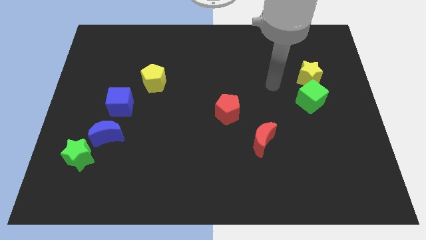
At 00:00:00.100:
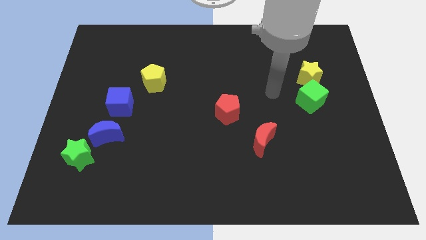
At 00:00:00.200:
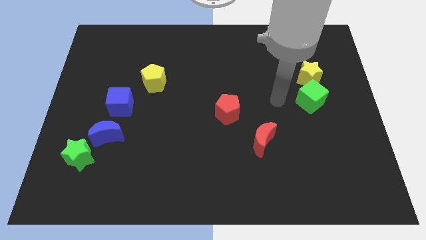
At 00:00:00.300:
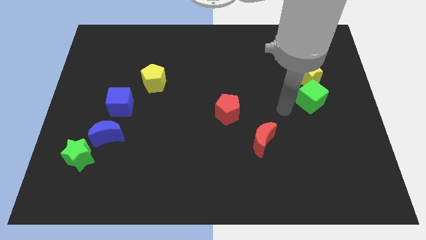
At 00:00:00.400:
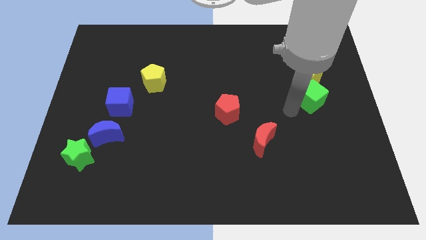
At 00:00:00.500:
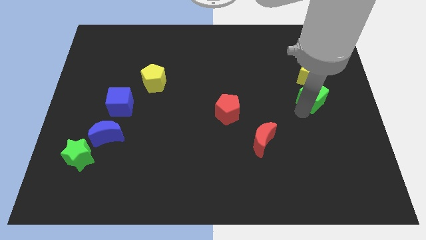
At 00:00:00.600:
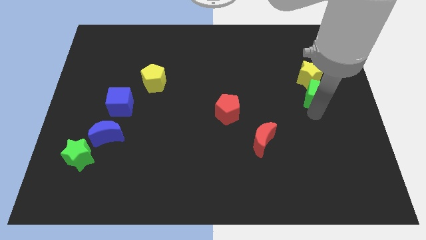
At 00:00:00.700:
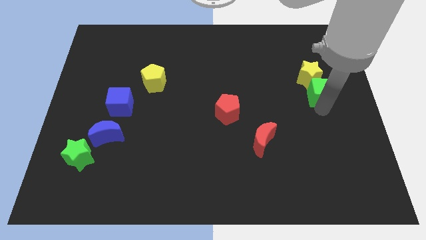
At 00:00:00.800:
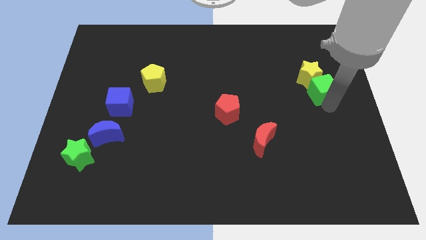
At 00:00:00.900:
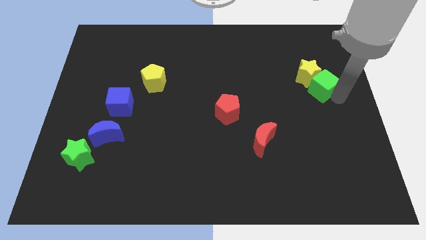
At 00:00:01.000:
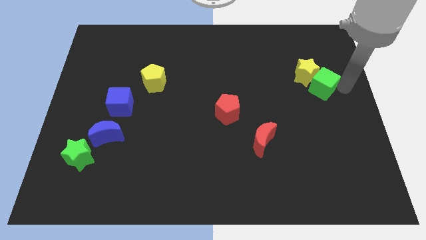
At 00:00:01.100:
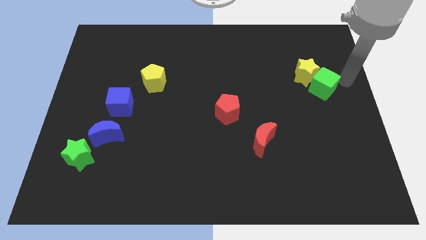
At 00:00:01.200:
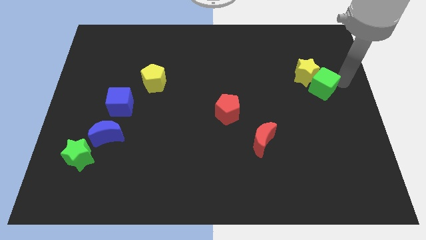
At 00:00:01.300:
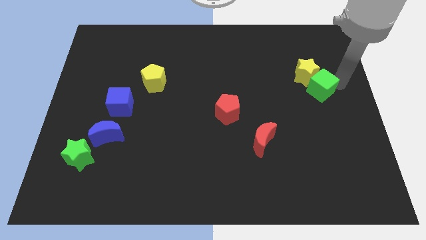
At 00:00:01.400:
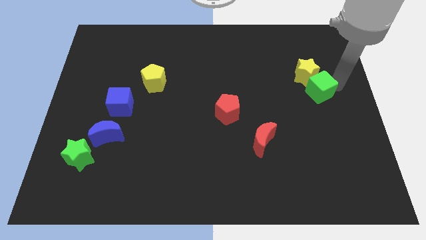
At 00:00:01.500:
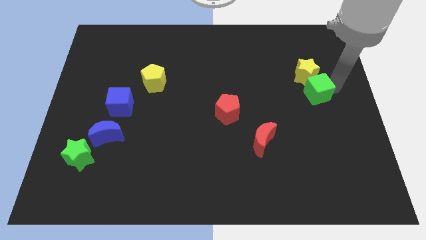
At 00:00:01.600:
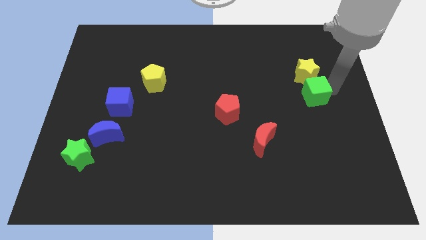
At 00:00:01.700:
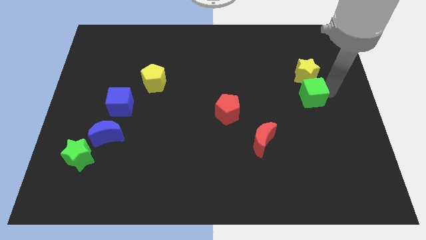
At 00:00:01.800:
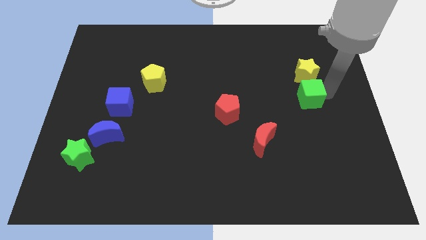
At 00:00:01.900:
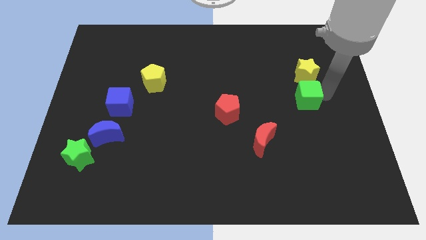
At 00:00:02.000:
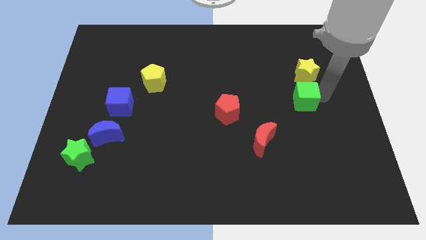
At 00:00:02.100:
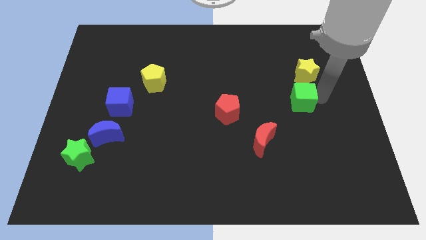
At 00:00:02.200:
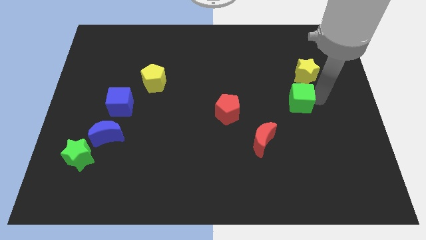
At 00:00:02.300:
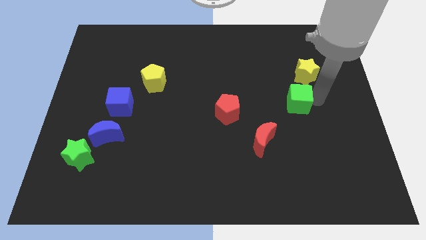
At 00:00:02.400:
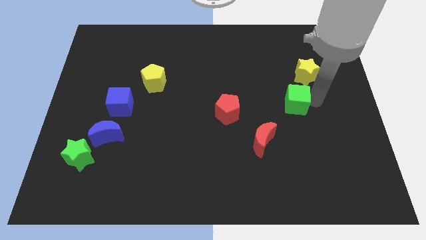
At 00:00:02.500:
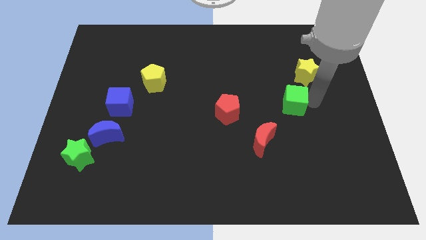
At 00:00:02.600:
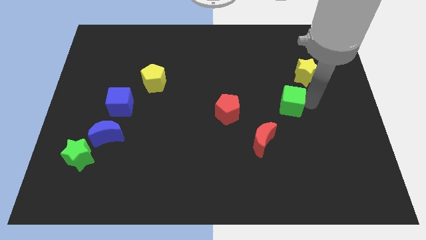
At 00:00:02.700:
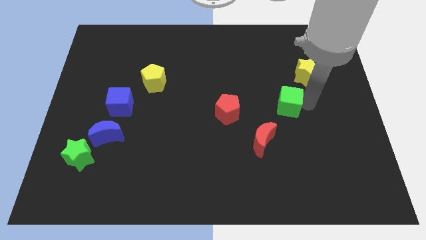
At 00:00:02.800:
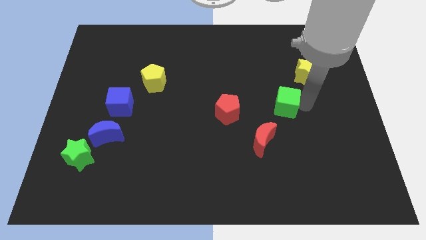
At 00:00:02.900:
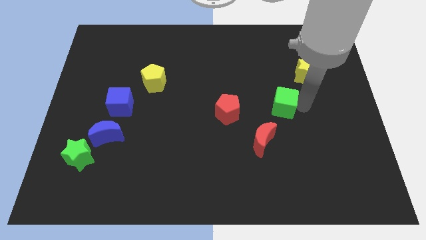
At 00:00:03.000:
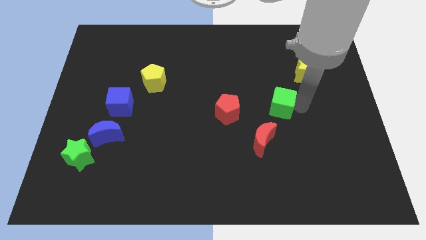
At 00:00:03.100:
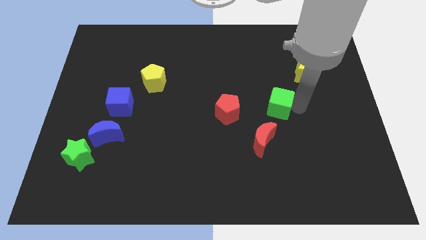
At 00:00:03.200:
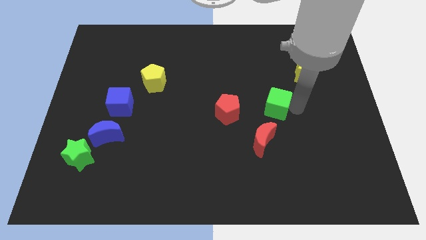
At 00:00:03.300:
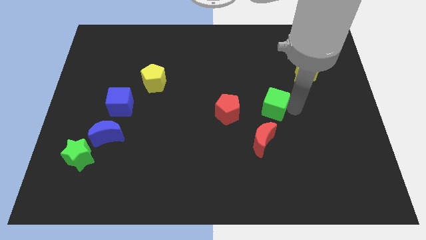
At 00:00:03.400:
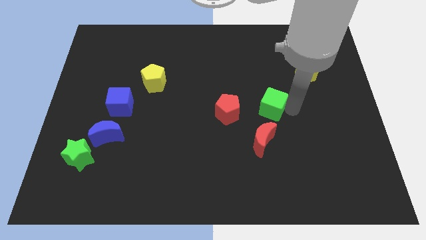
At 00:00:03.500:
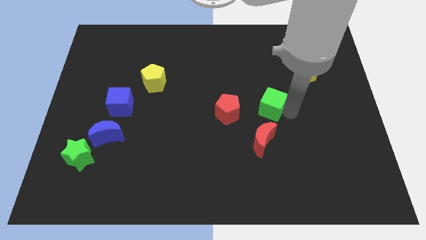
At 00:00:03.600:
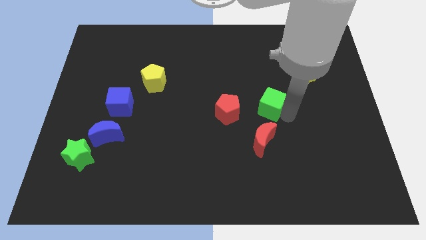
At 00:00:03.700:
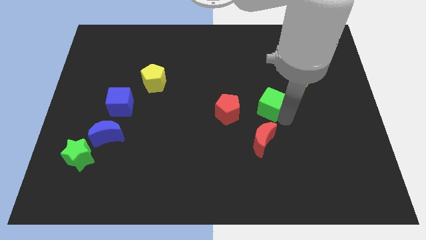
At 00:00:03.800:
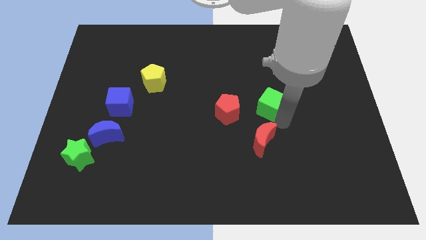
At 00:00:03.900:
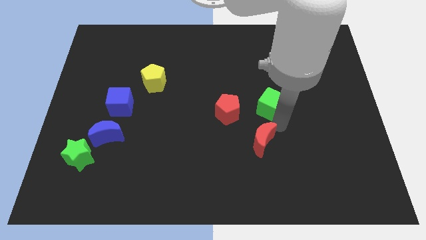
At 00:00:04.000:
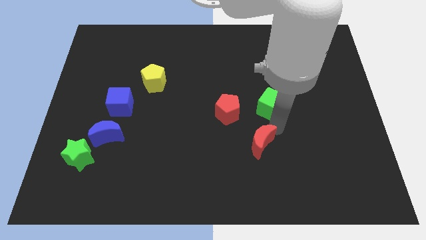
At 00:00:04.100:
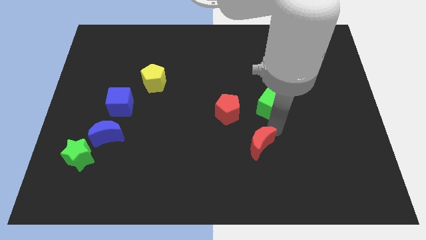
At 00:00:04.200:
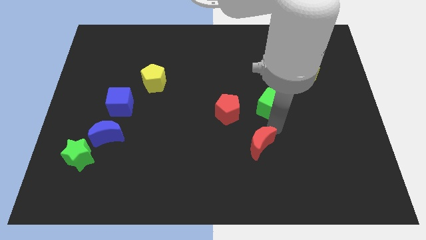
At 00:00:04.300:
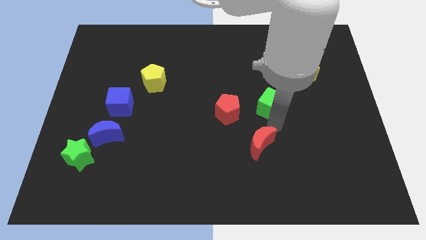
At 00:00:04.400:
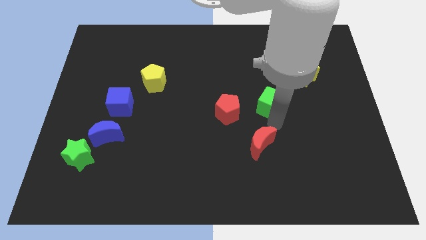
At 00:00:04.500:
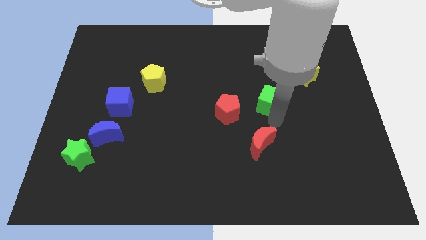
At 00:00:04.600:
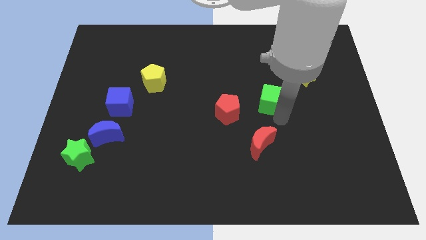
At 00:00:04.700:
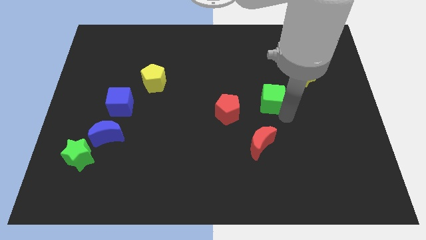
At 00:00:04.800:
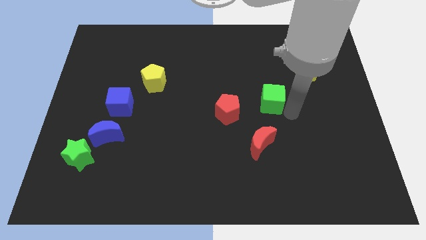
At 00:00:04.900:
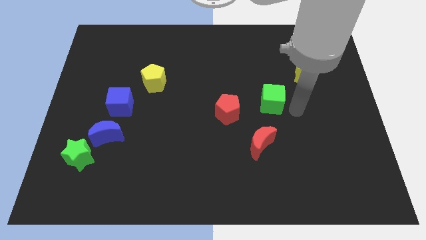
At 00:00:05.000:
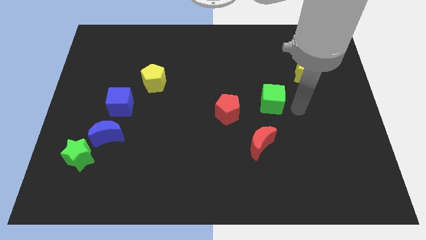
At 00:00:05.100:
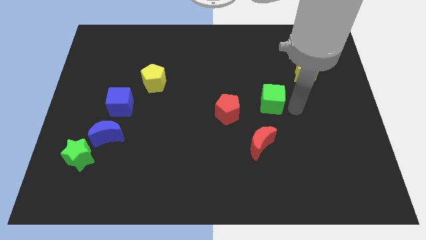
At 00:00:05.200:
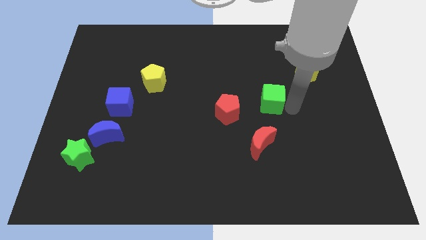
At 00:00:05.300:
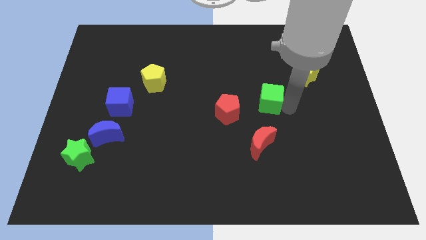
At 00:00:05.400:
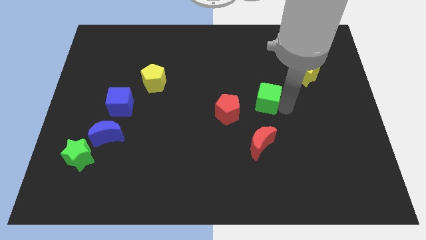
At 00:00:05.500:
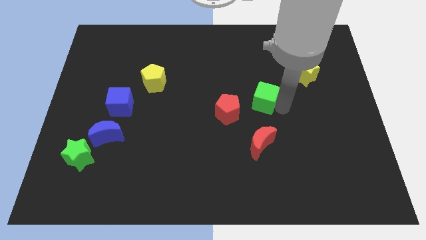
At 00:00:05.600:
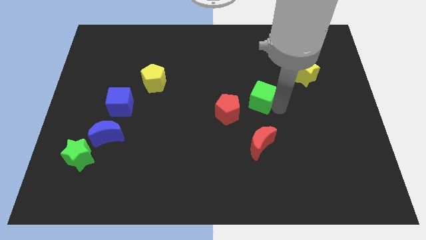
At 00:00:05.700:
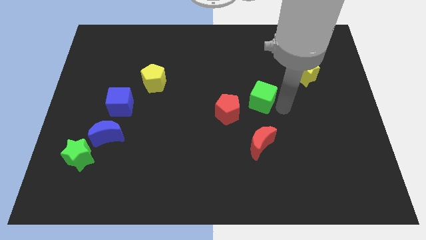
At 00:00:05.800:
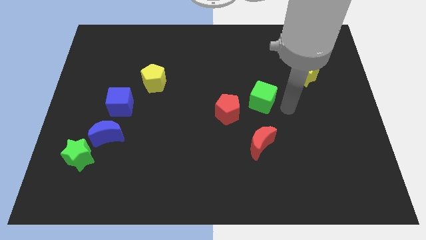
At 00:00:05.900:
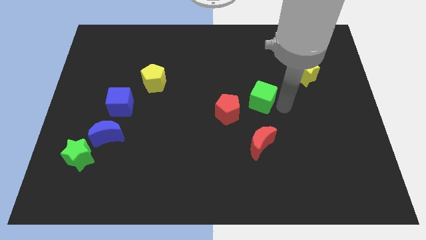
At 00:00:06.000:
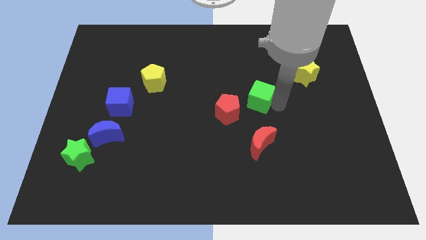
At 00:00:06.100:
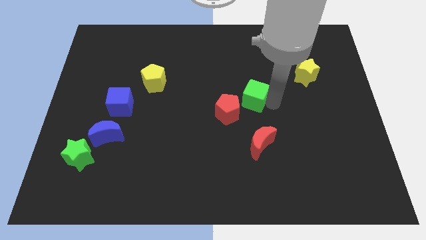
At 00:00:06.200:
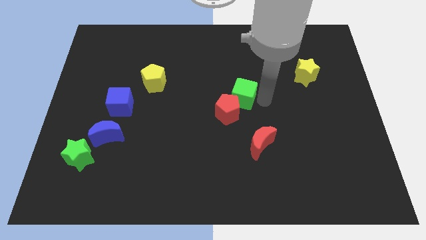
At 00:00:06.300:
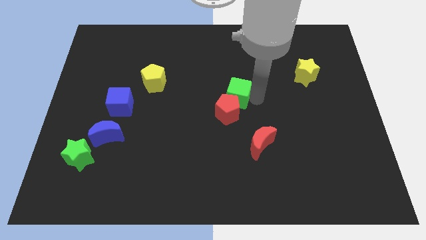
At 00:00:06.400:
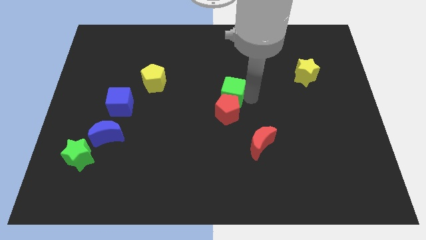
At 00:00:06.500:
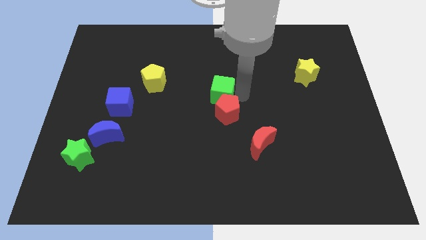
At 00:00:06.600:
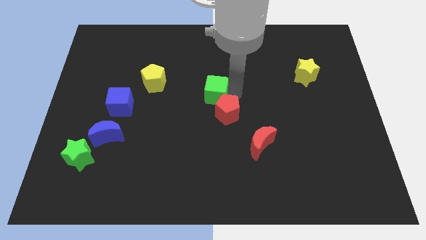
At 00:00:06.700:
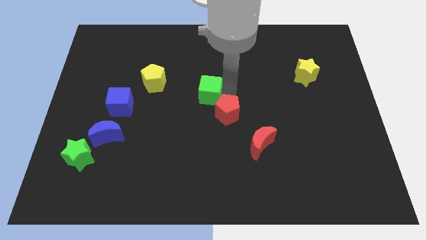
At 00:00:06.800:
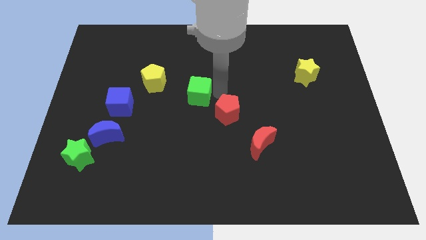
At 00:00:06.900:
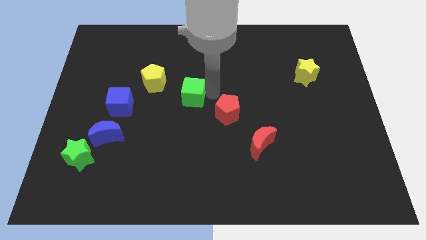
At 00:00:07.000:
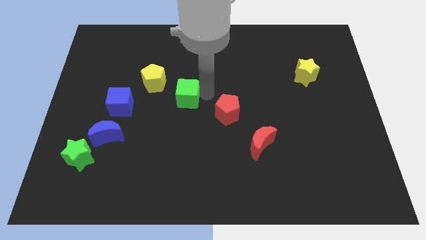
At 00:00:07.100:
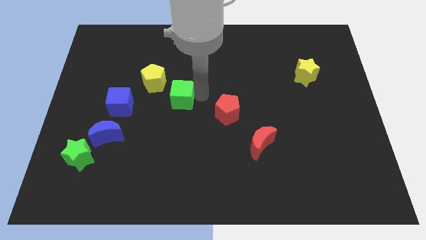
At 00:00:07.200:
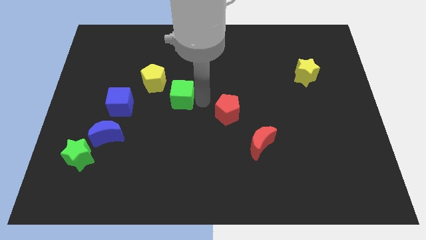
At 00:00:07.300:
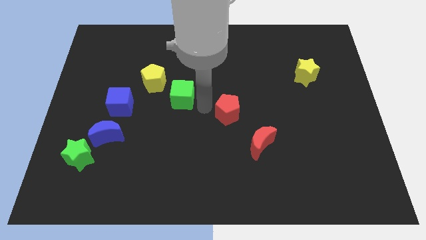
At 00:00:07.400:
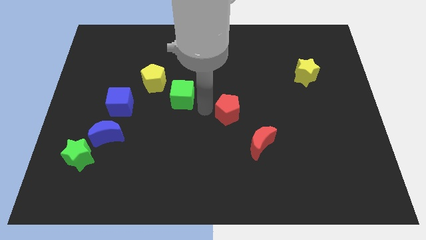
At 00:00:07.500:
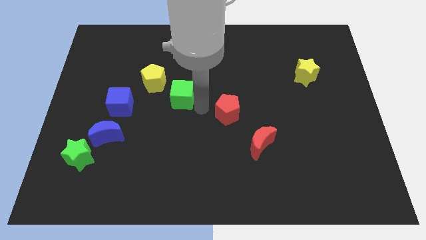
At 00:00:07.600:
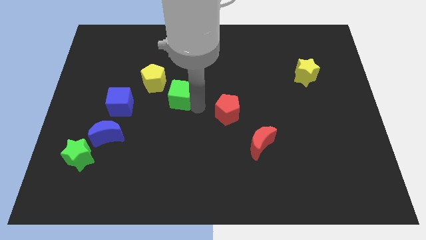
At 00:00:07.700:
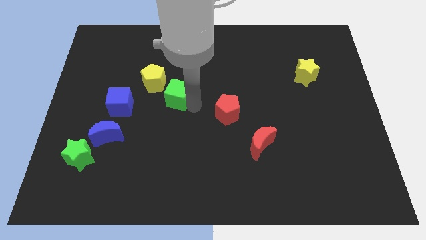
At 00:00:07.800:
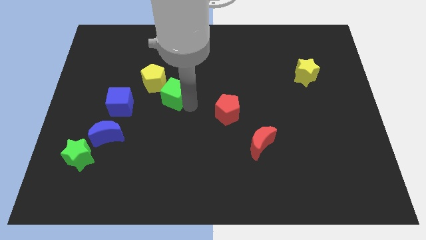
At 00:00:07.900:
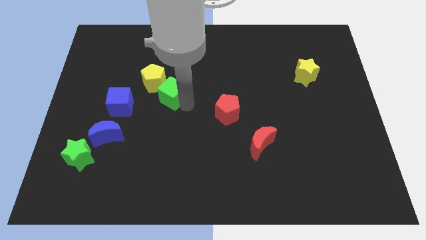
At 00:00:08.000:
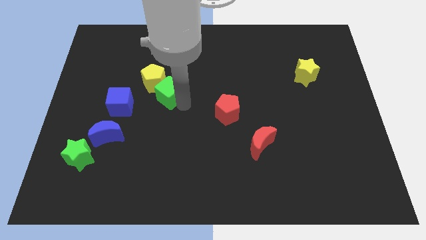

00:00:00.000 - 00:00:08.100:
move the green cube to the yellow pentagon
